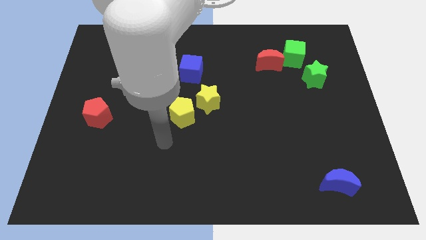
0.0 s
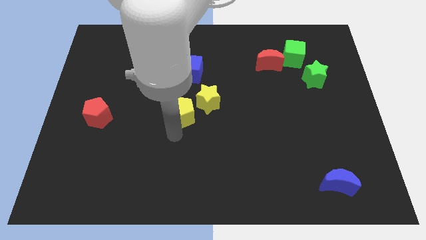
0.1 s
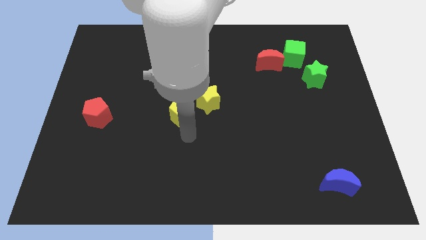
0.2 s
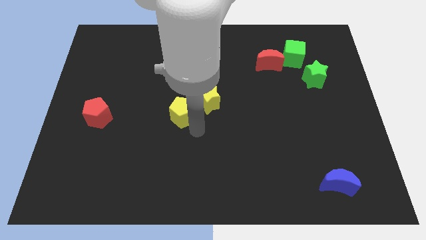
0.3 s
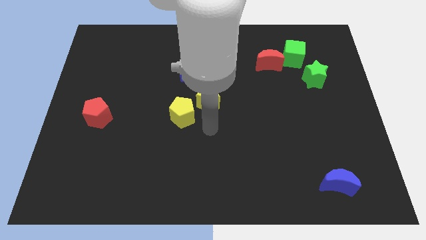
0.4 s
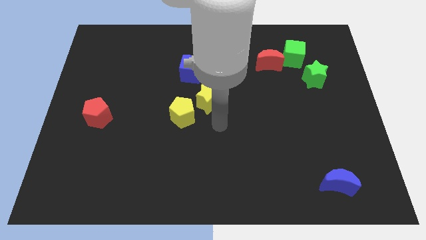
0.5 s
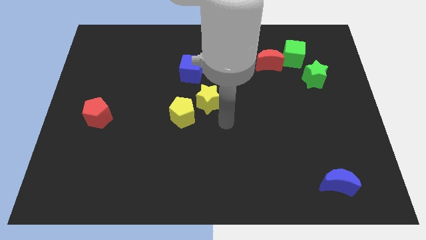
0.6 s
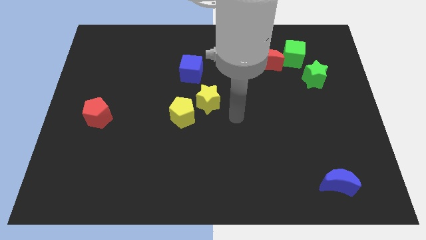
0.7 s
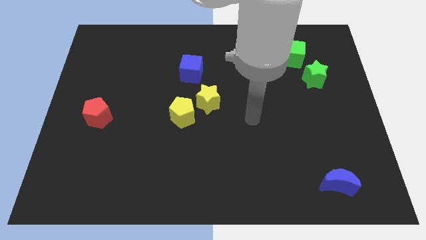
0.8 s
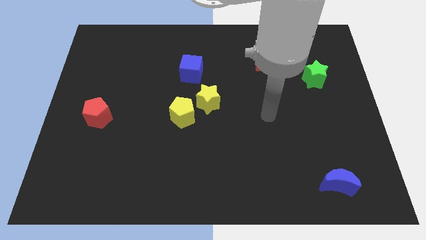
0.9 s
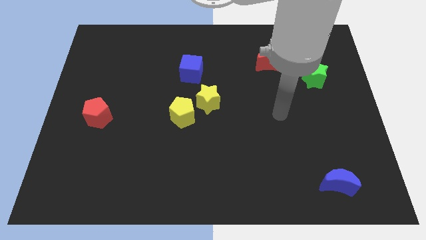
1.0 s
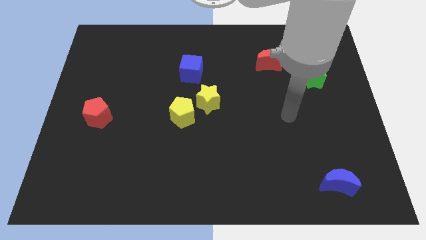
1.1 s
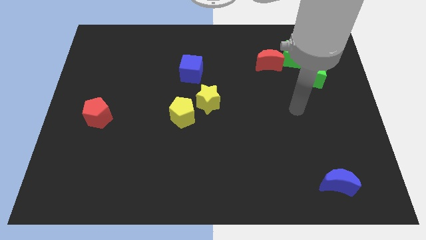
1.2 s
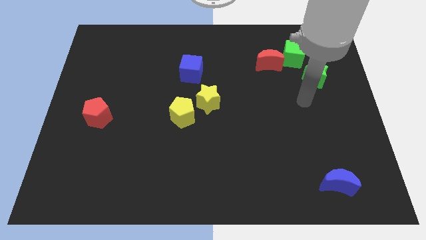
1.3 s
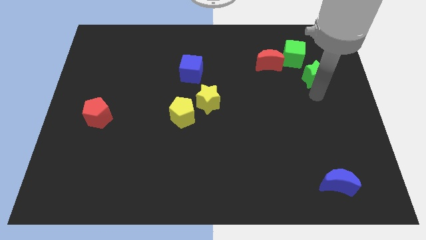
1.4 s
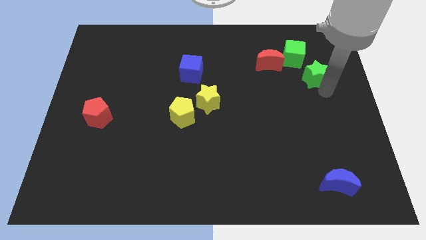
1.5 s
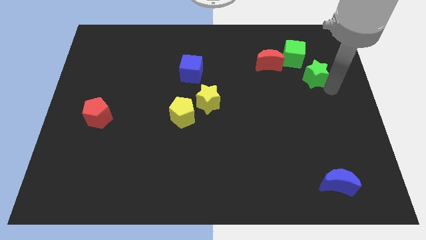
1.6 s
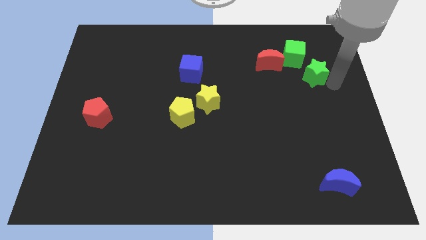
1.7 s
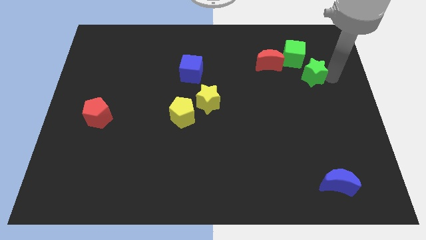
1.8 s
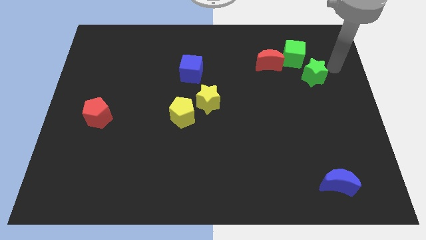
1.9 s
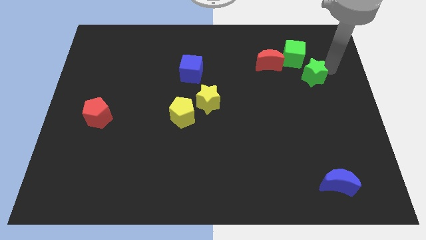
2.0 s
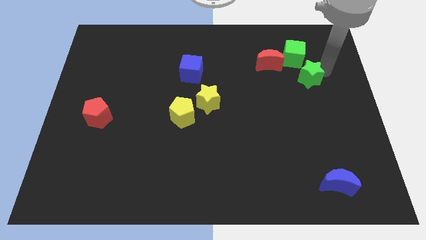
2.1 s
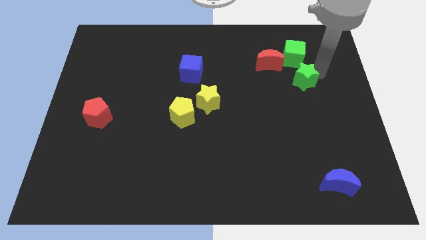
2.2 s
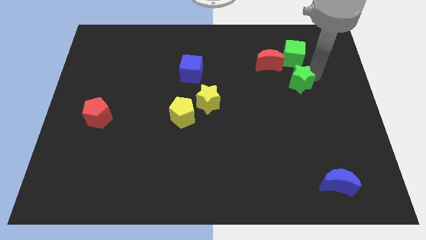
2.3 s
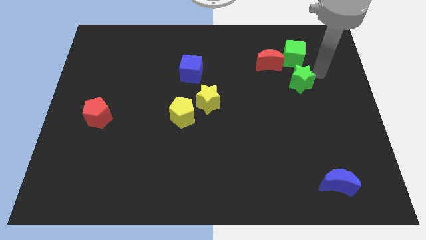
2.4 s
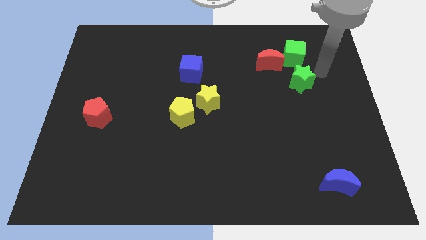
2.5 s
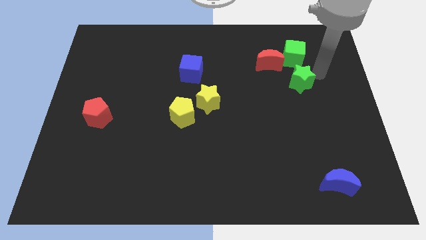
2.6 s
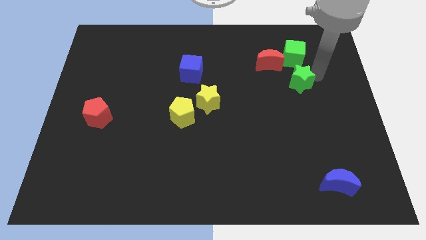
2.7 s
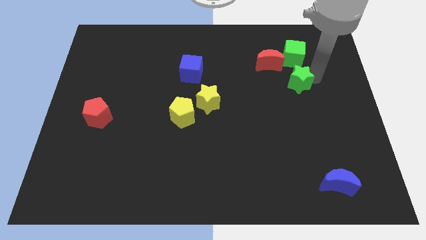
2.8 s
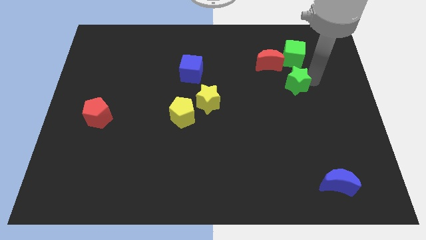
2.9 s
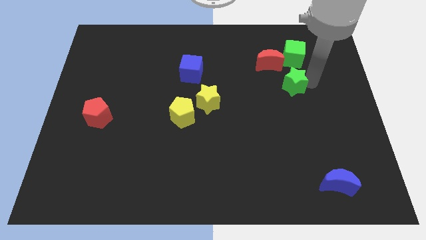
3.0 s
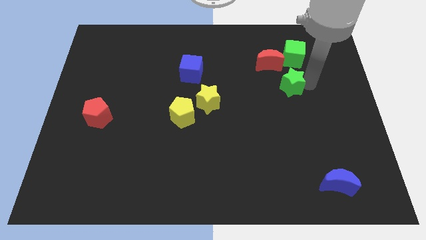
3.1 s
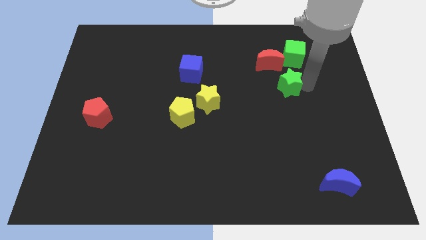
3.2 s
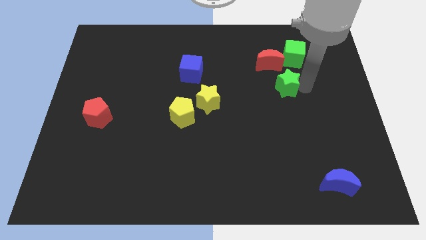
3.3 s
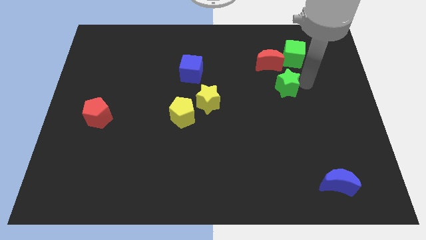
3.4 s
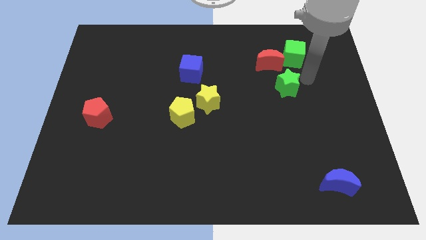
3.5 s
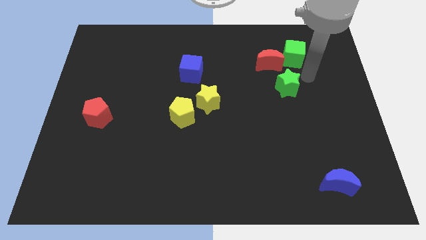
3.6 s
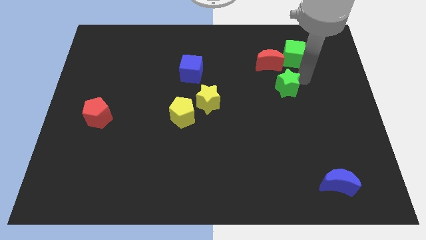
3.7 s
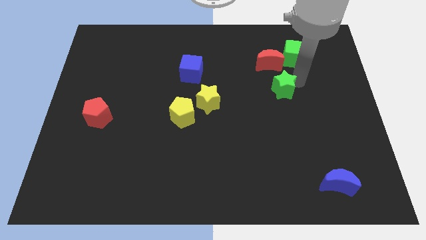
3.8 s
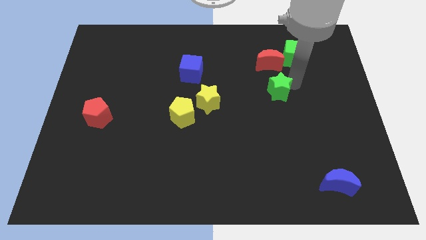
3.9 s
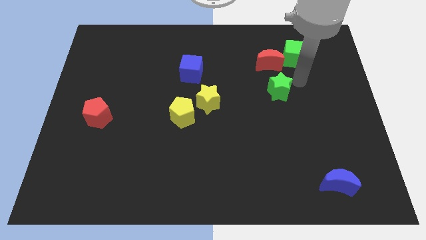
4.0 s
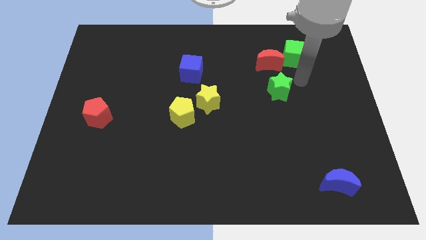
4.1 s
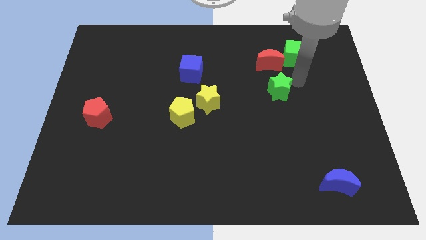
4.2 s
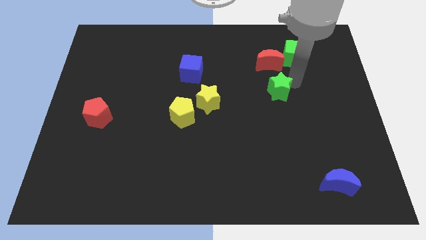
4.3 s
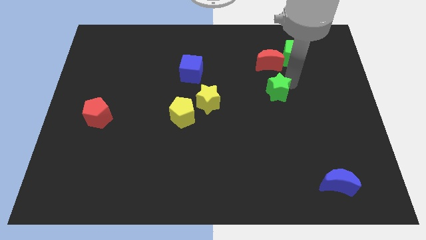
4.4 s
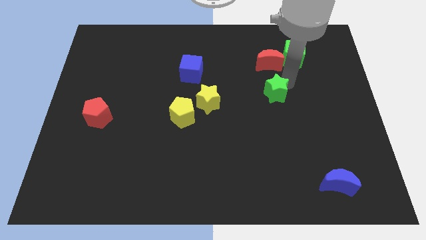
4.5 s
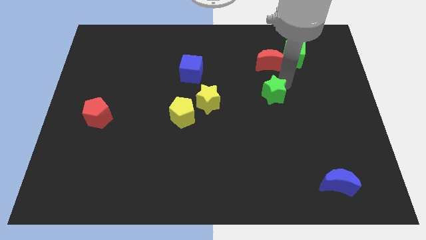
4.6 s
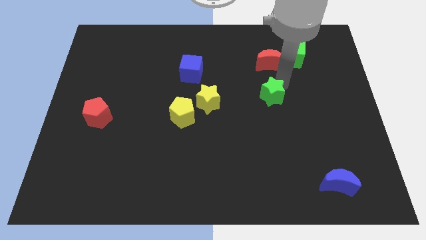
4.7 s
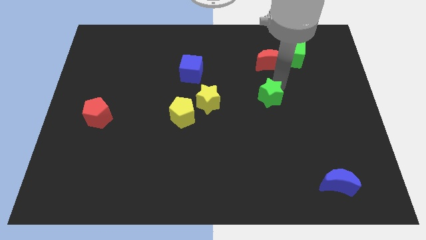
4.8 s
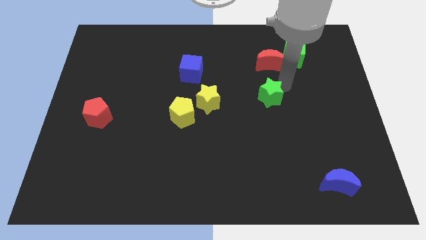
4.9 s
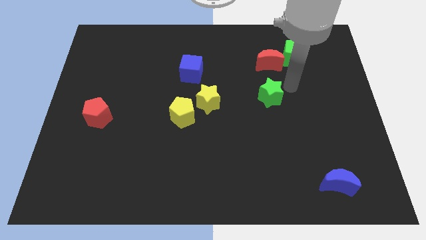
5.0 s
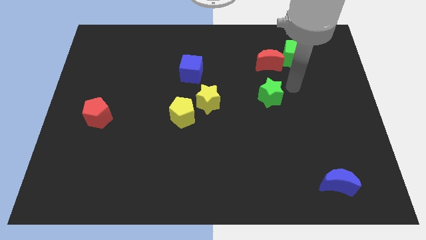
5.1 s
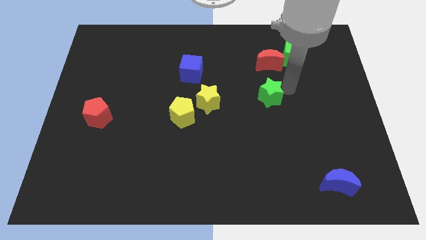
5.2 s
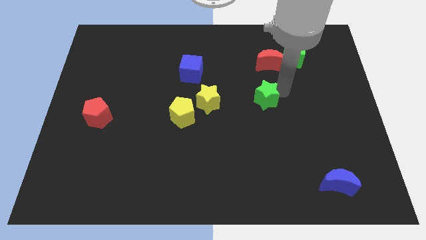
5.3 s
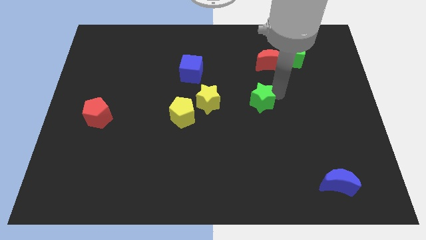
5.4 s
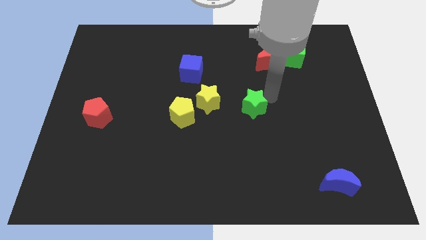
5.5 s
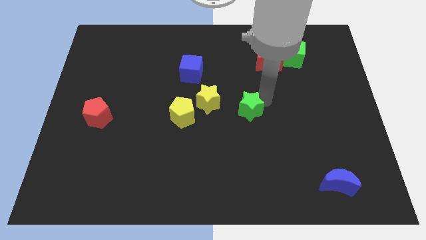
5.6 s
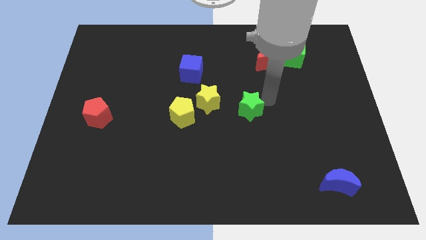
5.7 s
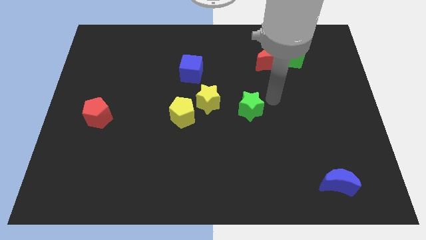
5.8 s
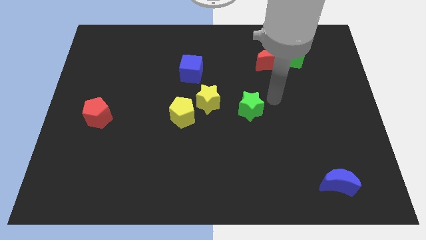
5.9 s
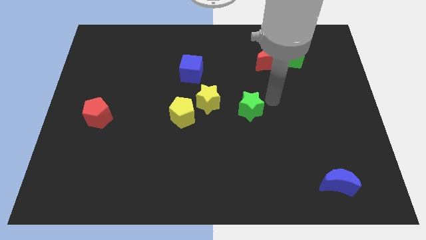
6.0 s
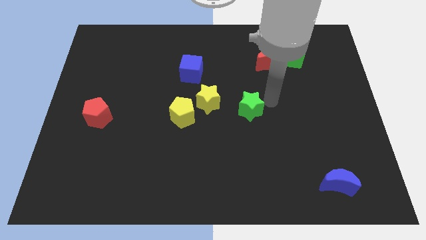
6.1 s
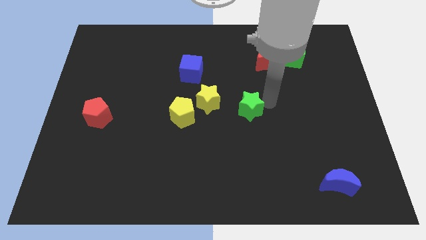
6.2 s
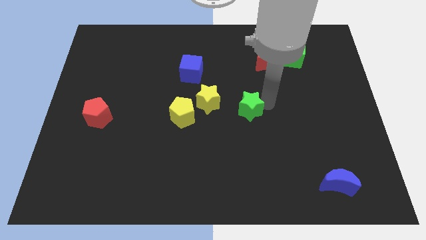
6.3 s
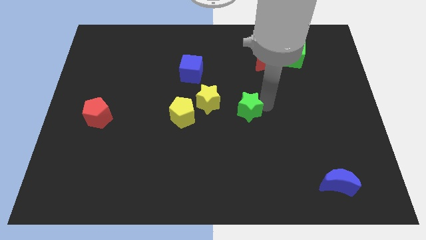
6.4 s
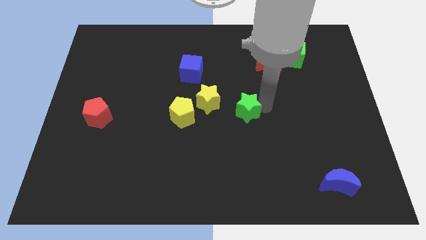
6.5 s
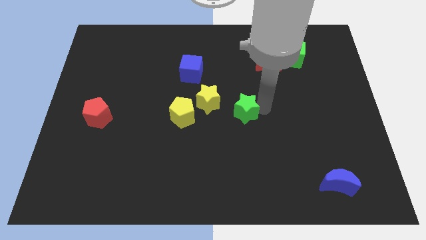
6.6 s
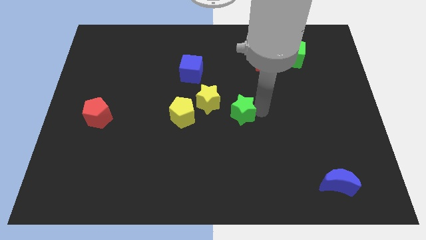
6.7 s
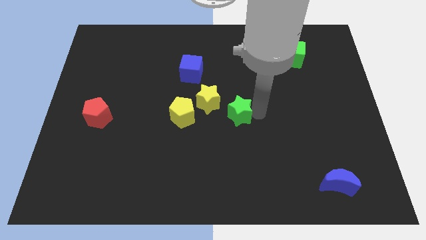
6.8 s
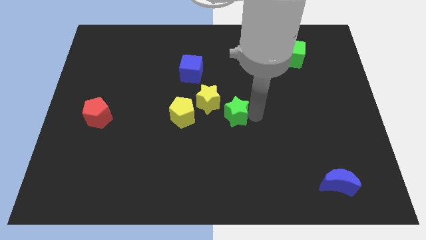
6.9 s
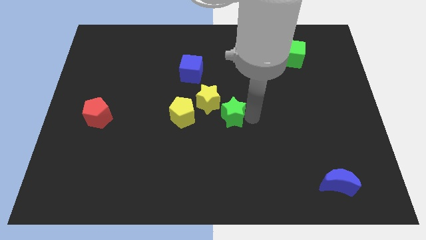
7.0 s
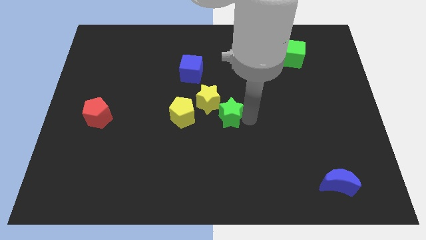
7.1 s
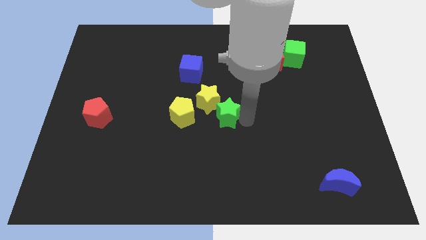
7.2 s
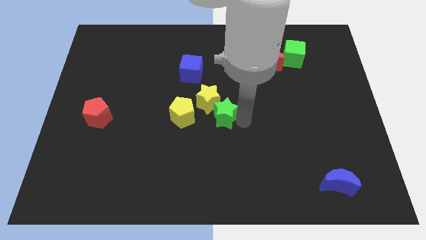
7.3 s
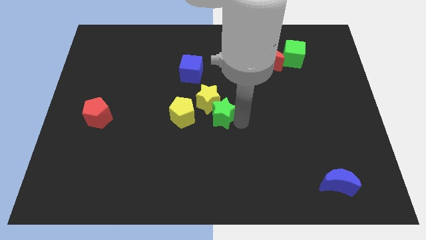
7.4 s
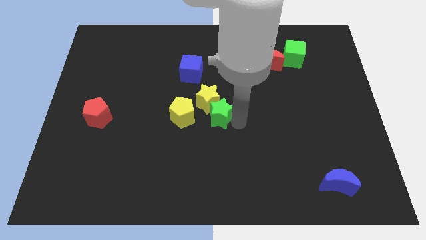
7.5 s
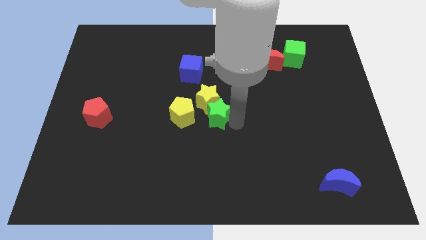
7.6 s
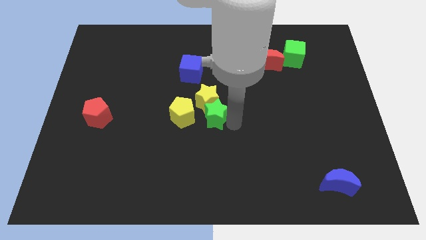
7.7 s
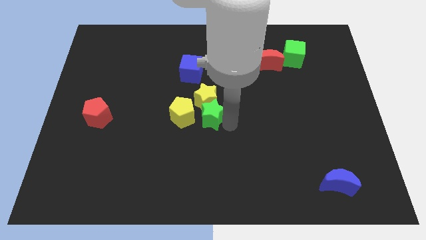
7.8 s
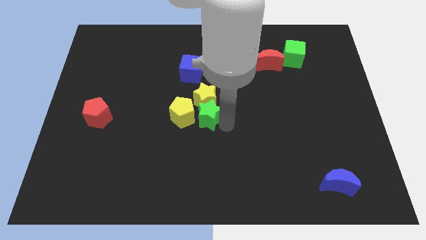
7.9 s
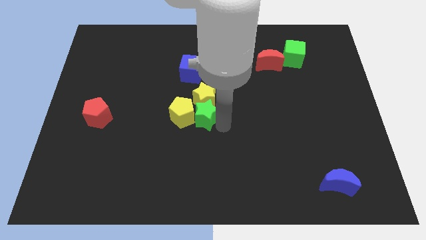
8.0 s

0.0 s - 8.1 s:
push the green star close to the yellow pentagon

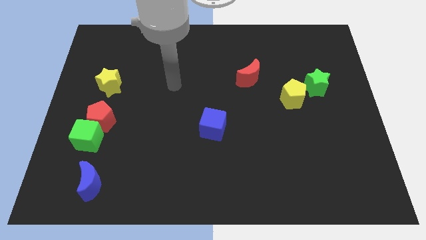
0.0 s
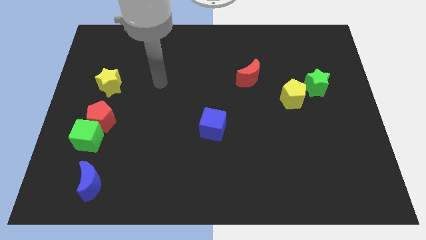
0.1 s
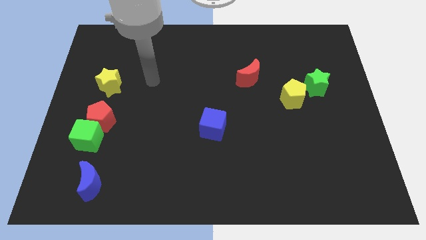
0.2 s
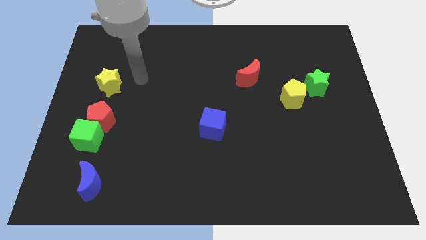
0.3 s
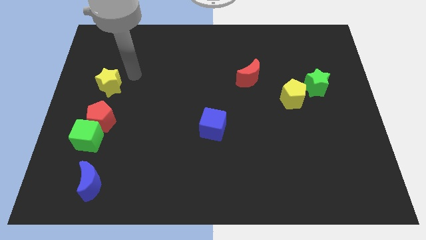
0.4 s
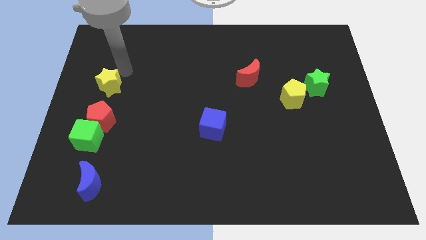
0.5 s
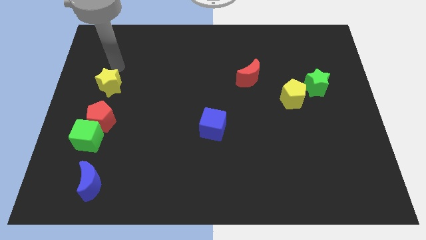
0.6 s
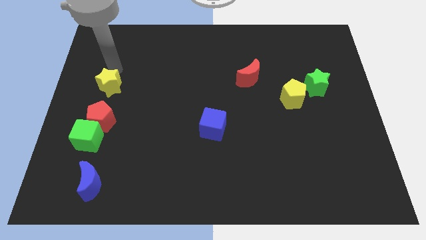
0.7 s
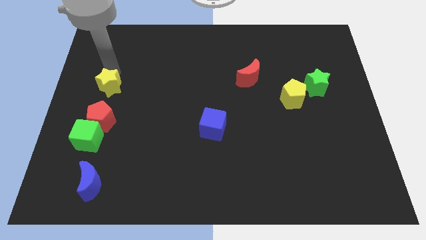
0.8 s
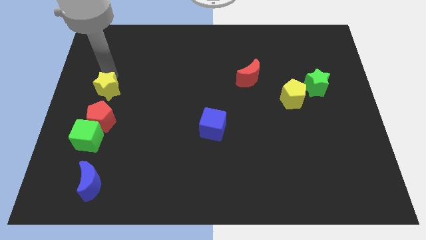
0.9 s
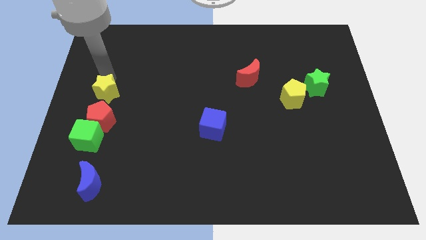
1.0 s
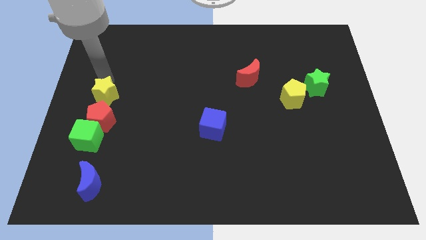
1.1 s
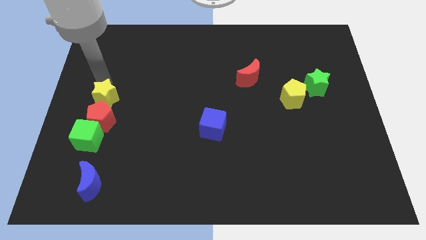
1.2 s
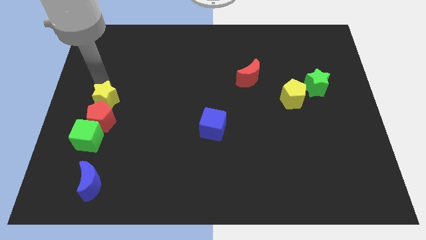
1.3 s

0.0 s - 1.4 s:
move the yellow star close to the red pentagon
